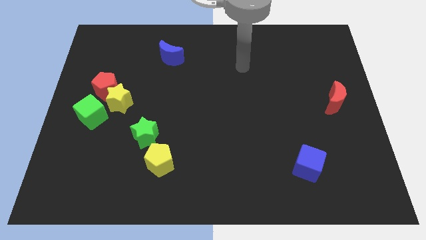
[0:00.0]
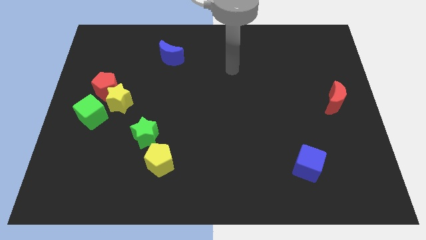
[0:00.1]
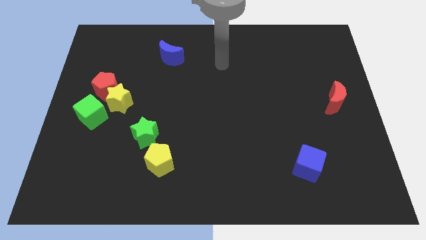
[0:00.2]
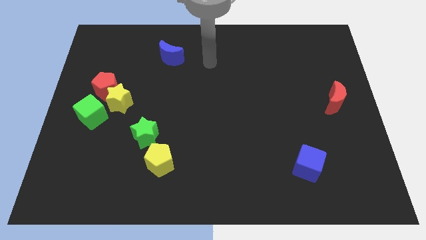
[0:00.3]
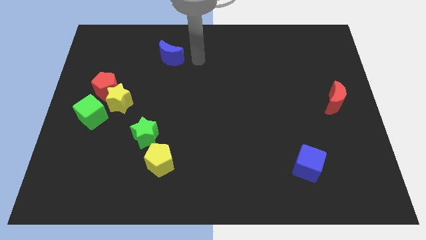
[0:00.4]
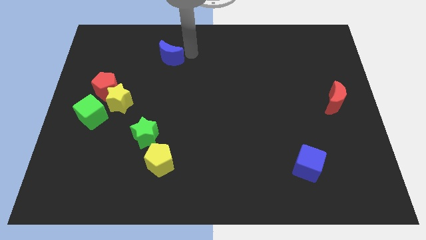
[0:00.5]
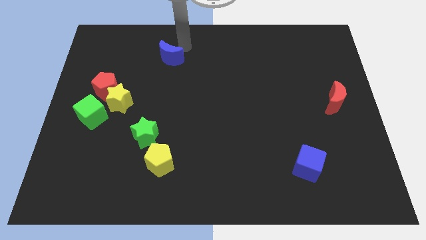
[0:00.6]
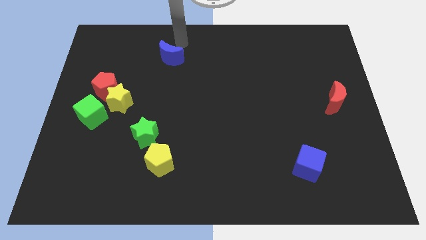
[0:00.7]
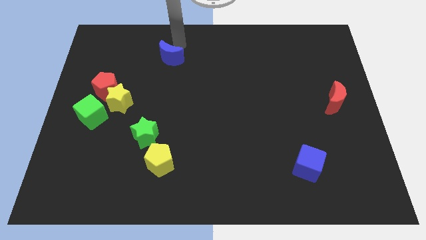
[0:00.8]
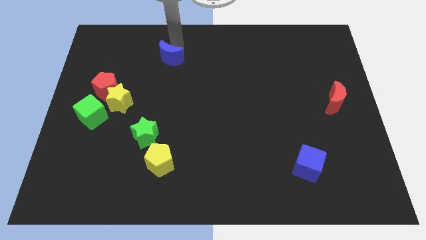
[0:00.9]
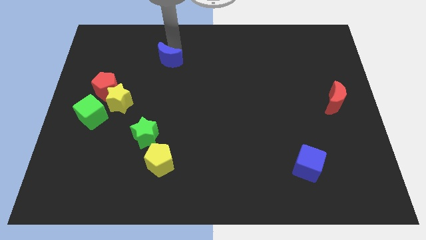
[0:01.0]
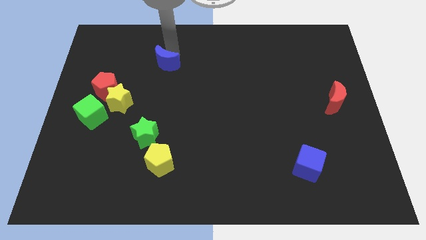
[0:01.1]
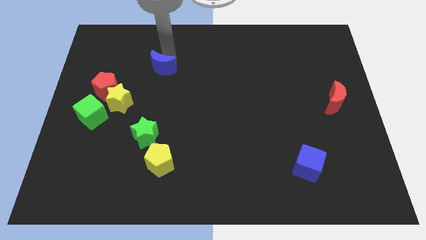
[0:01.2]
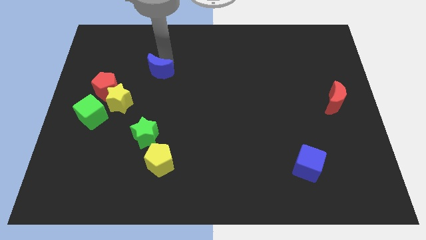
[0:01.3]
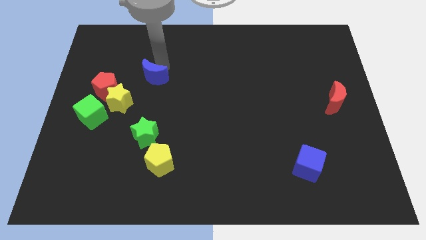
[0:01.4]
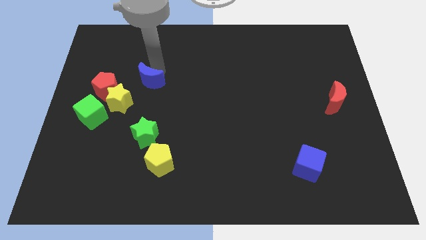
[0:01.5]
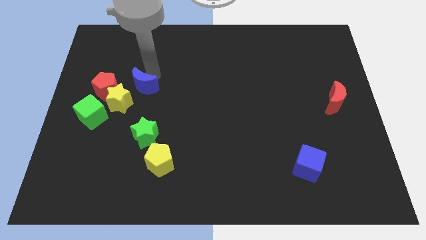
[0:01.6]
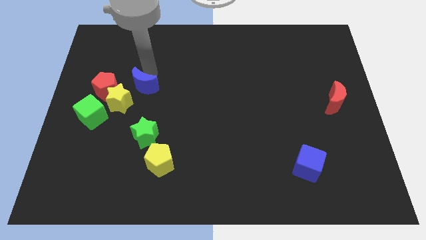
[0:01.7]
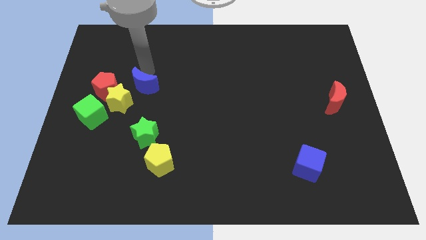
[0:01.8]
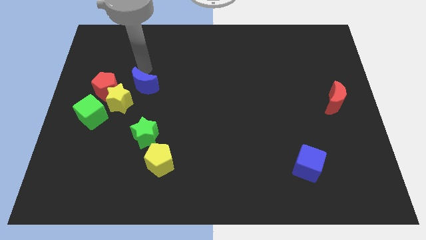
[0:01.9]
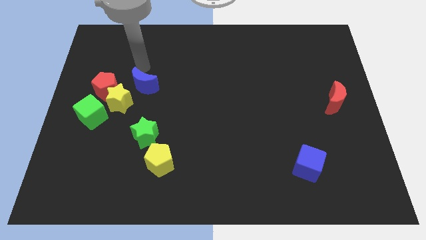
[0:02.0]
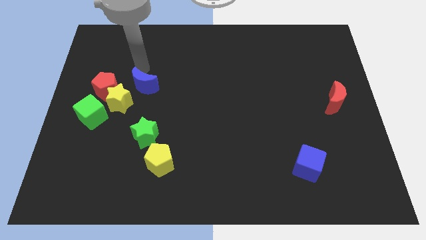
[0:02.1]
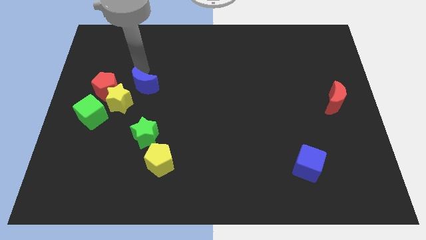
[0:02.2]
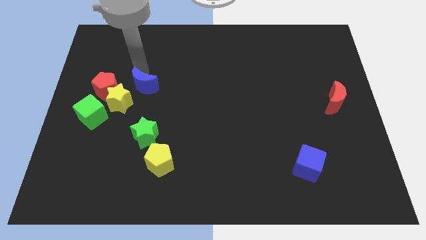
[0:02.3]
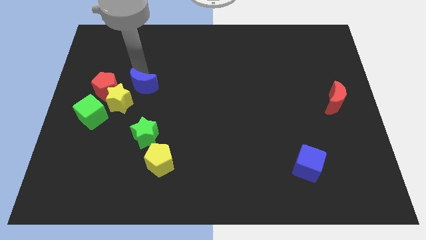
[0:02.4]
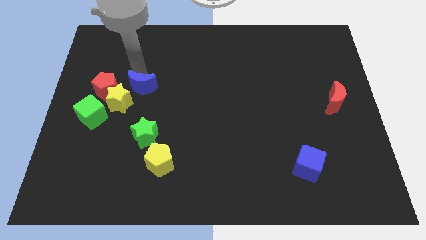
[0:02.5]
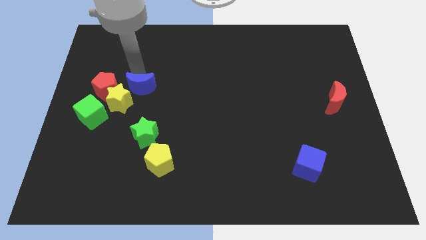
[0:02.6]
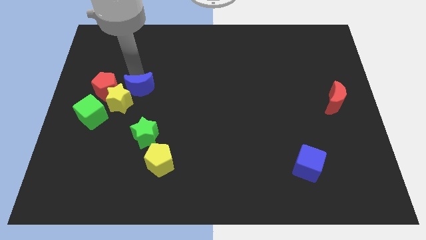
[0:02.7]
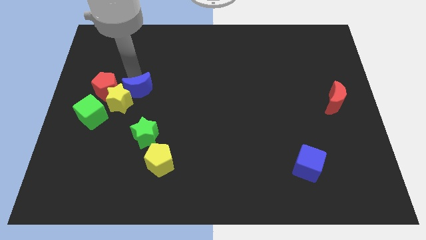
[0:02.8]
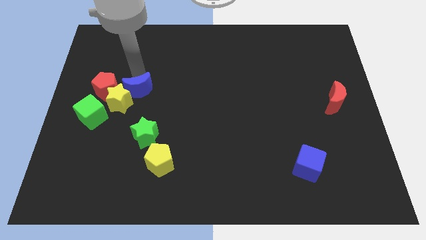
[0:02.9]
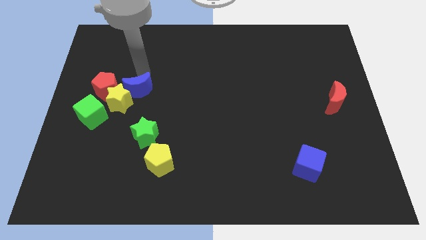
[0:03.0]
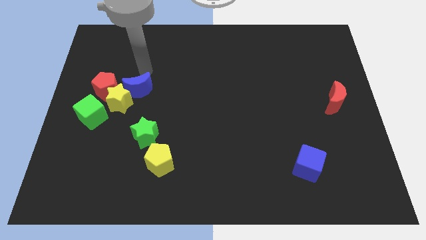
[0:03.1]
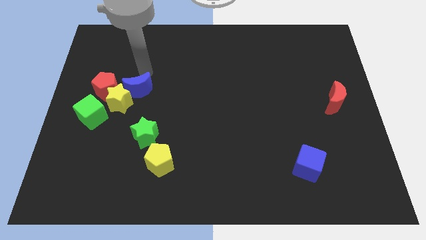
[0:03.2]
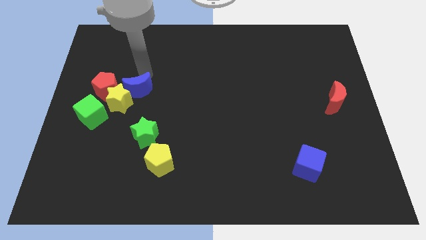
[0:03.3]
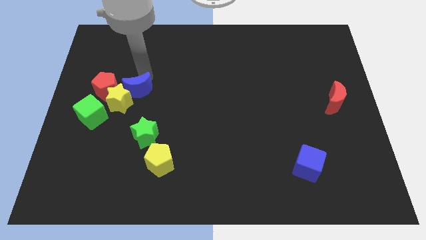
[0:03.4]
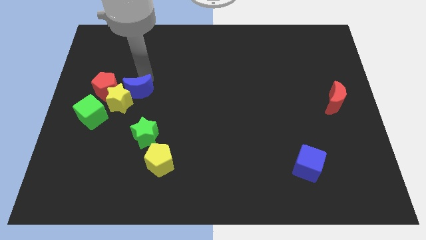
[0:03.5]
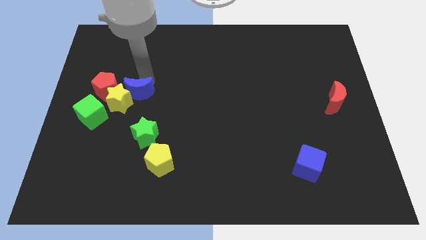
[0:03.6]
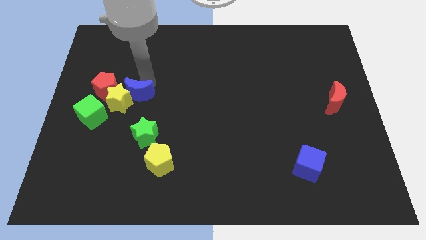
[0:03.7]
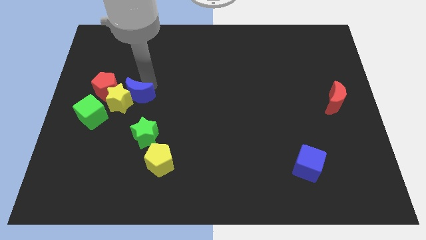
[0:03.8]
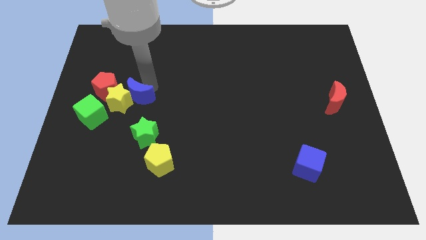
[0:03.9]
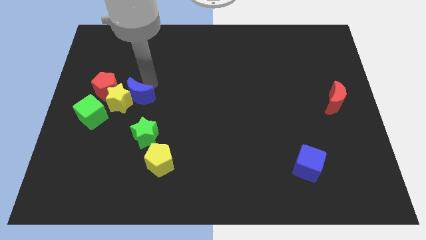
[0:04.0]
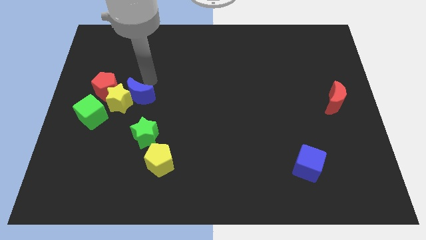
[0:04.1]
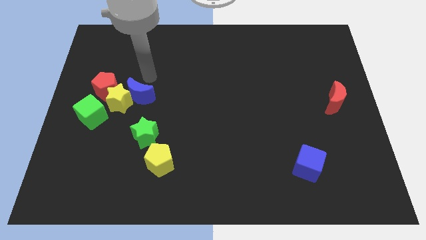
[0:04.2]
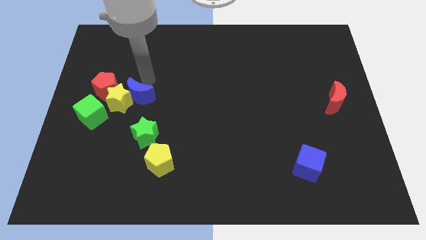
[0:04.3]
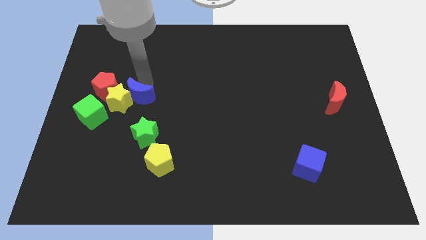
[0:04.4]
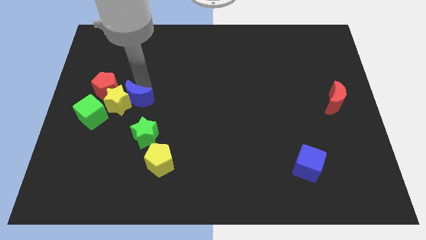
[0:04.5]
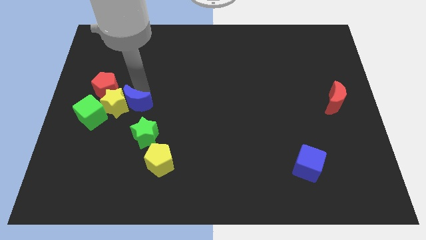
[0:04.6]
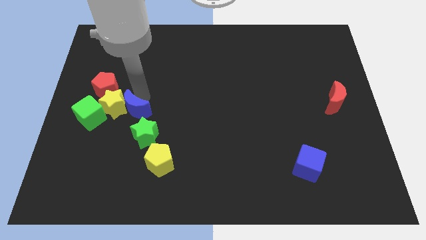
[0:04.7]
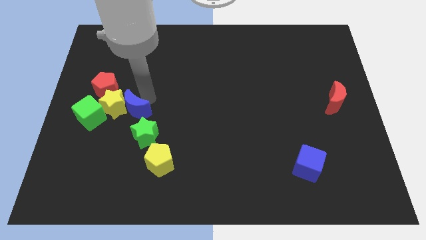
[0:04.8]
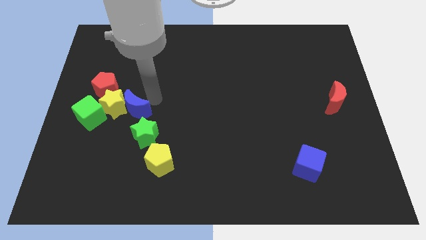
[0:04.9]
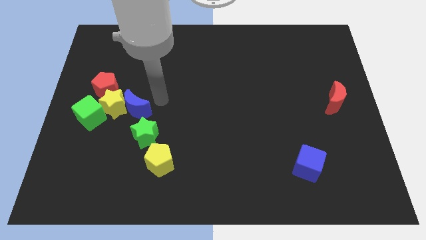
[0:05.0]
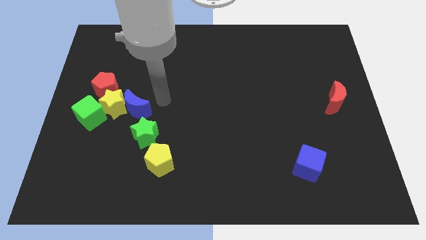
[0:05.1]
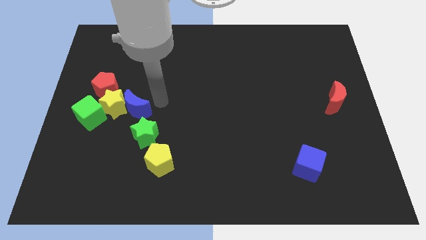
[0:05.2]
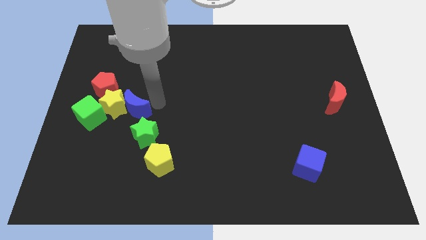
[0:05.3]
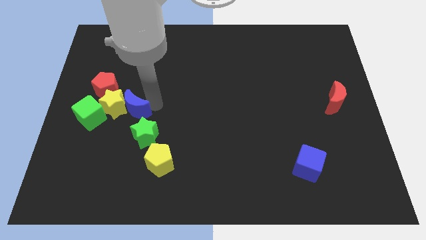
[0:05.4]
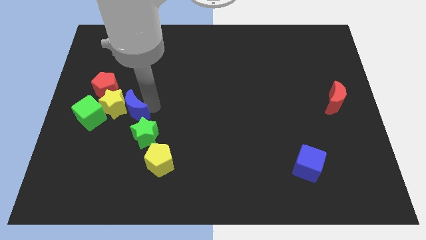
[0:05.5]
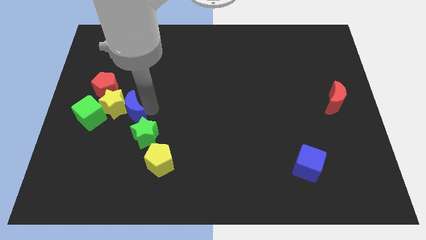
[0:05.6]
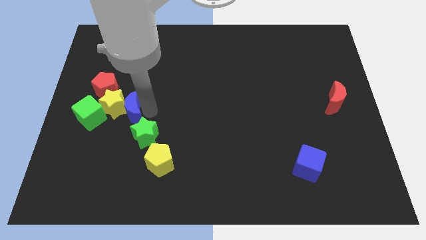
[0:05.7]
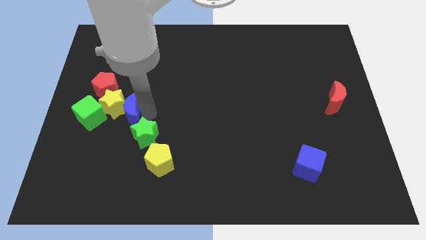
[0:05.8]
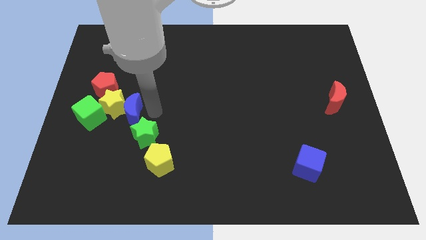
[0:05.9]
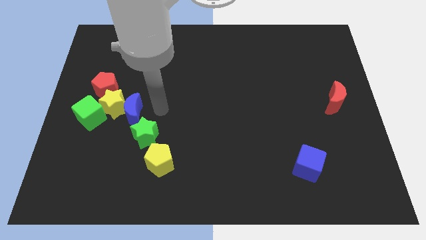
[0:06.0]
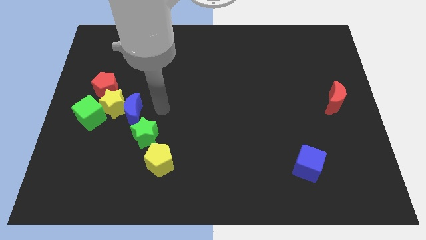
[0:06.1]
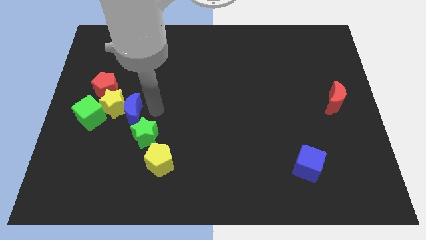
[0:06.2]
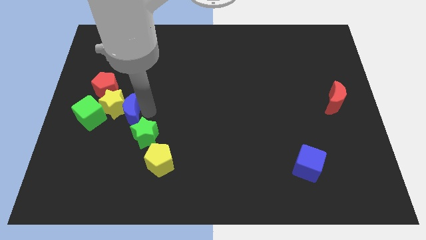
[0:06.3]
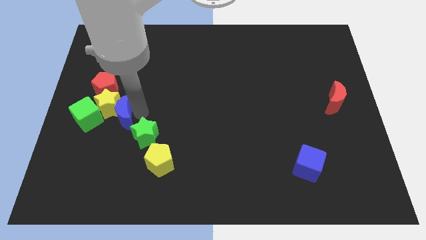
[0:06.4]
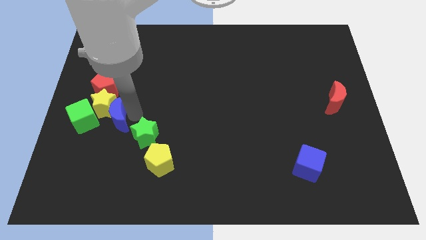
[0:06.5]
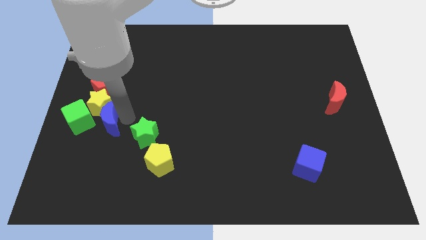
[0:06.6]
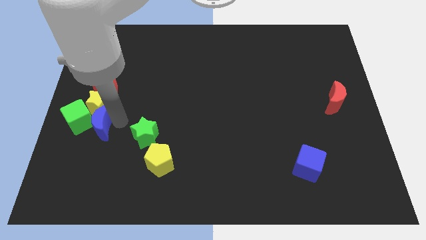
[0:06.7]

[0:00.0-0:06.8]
move the blue moon next to the green cube

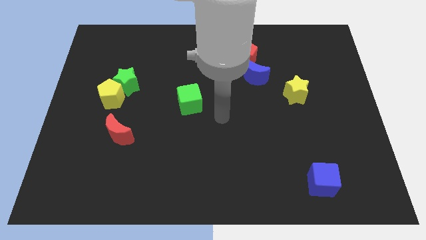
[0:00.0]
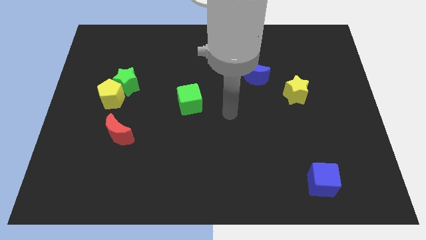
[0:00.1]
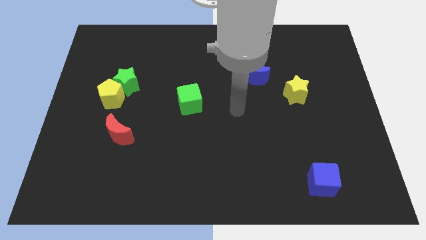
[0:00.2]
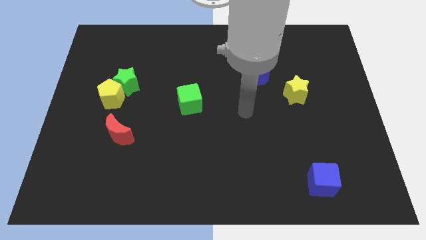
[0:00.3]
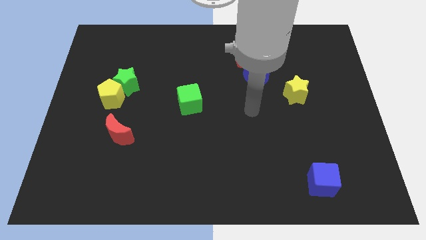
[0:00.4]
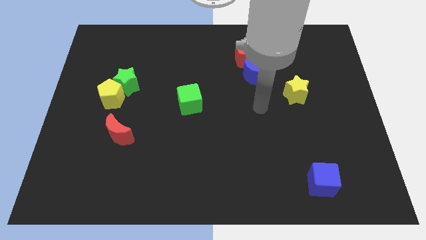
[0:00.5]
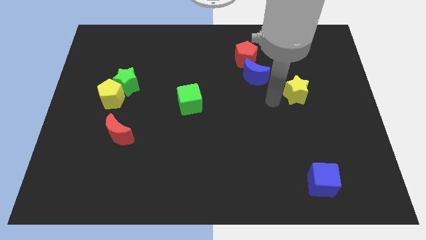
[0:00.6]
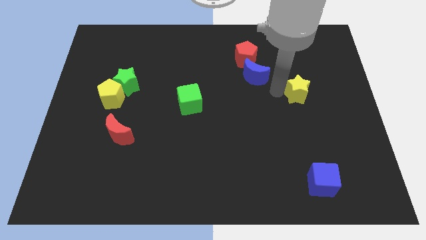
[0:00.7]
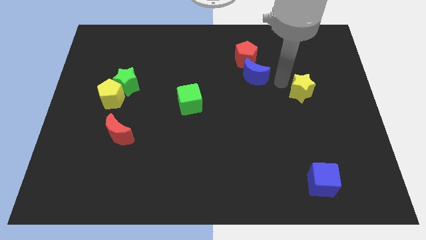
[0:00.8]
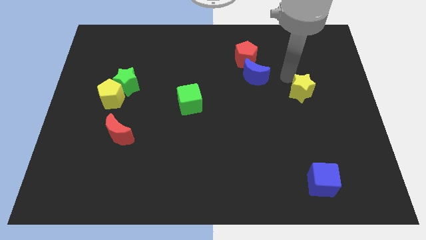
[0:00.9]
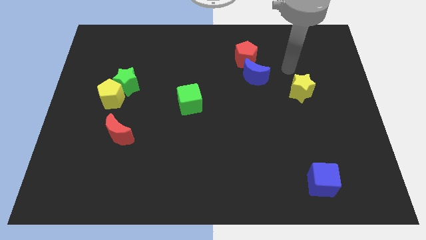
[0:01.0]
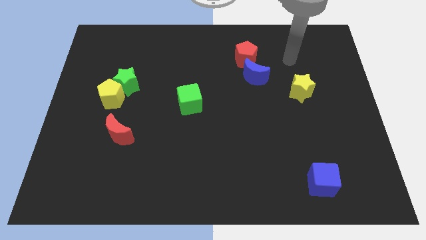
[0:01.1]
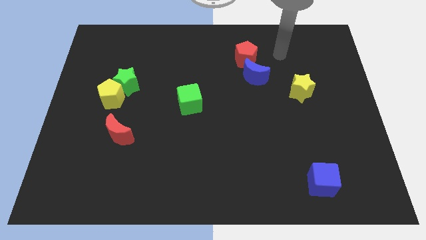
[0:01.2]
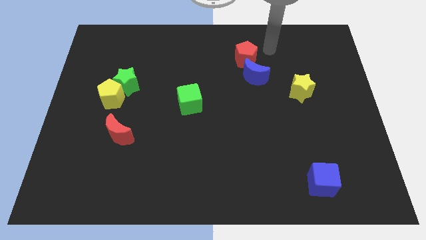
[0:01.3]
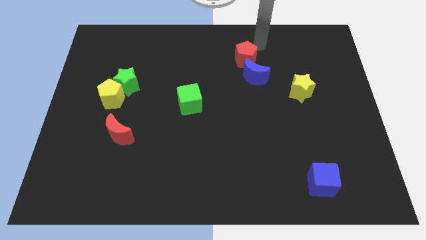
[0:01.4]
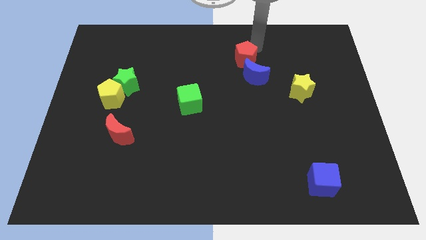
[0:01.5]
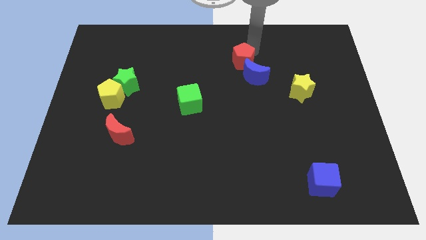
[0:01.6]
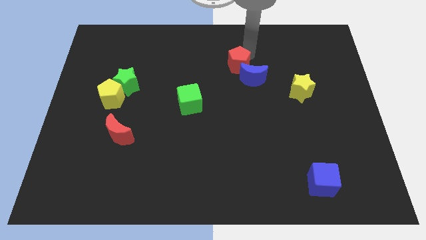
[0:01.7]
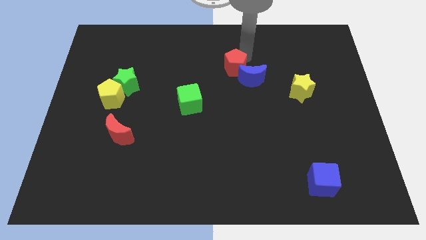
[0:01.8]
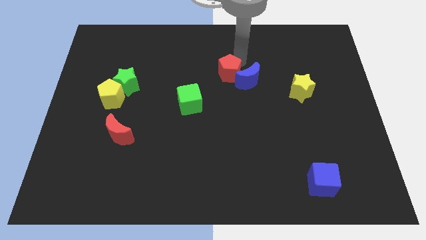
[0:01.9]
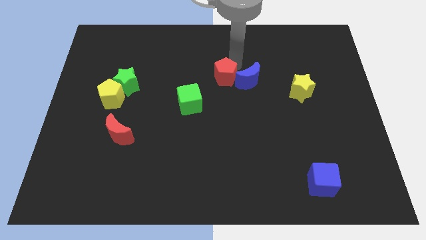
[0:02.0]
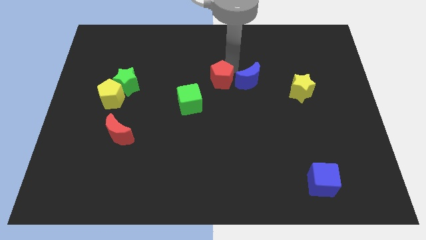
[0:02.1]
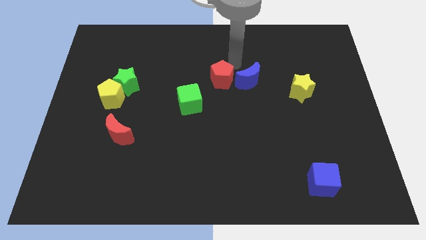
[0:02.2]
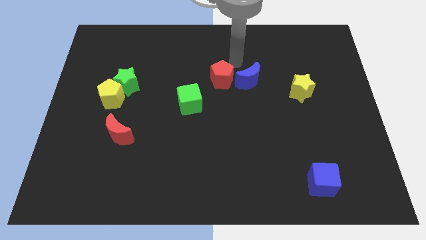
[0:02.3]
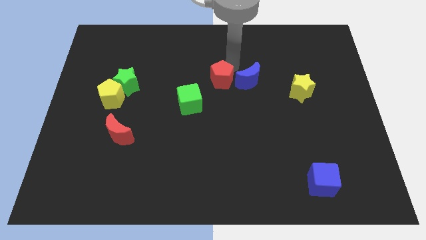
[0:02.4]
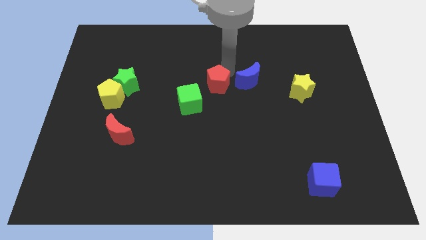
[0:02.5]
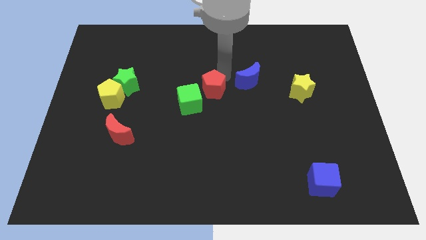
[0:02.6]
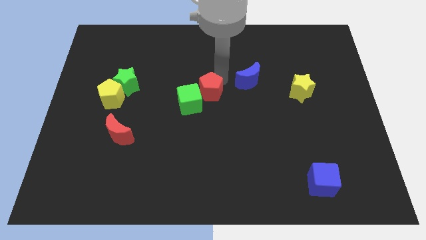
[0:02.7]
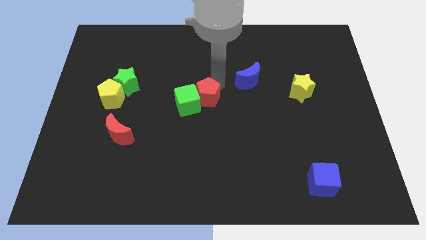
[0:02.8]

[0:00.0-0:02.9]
slide the red pentagon to the green cube
